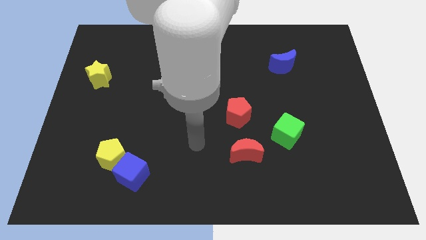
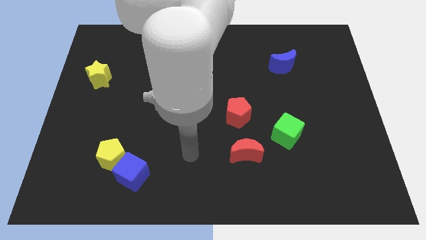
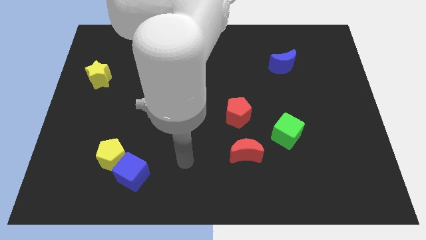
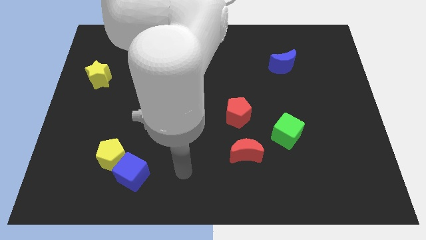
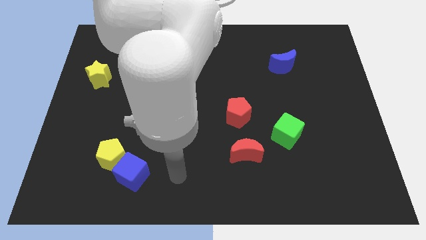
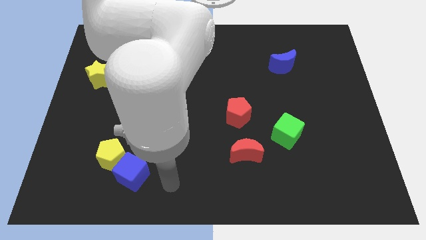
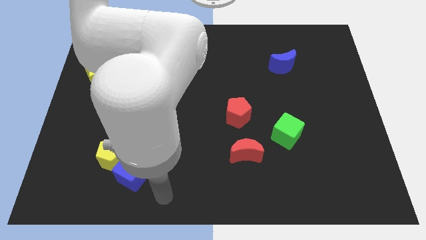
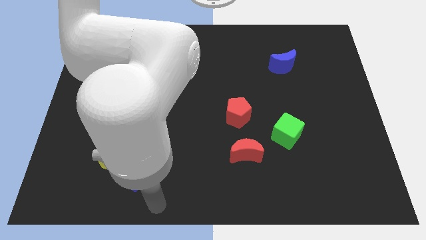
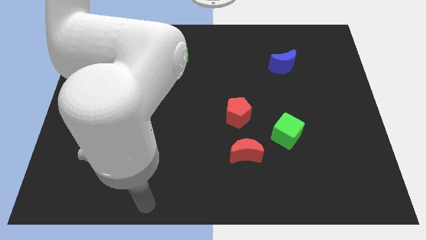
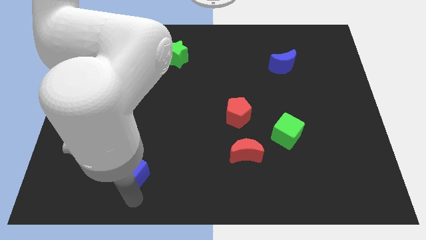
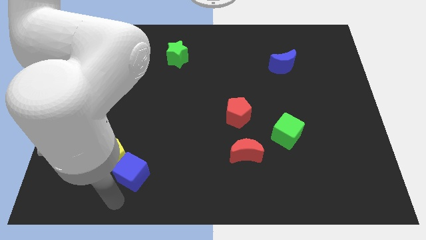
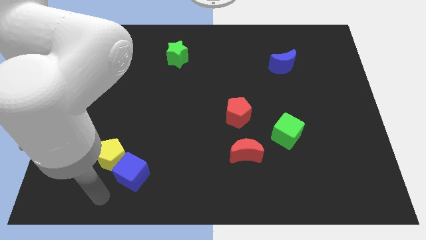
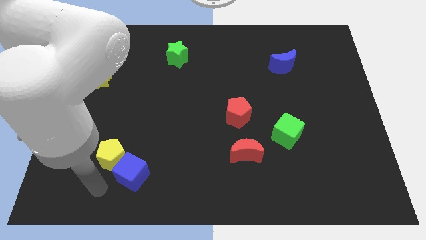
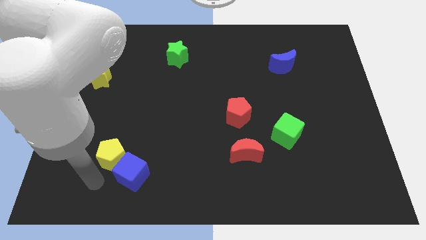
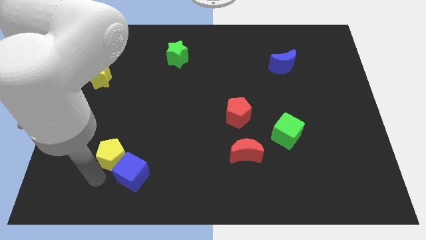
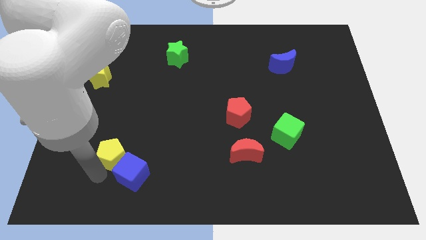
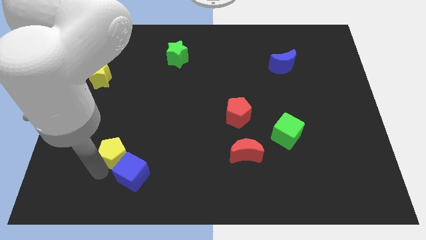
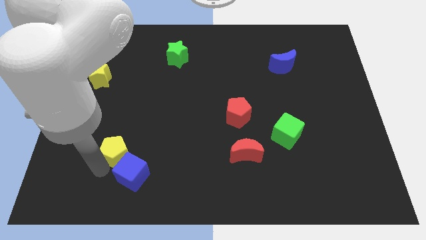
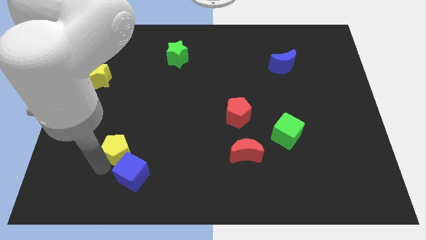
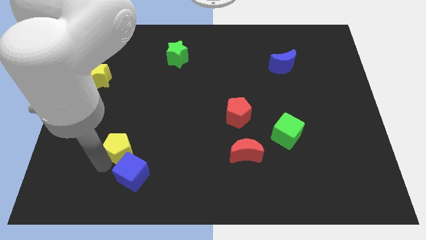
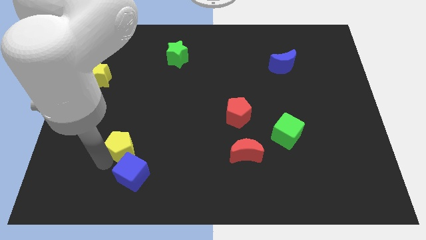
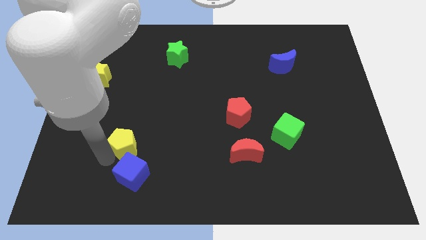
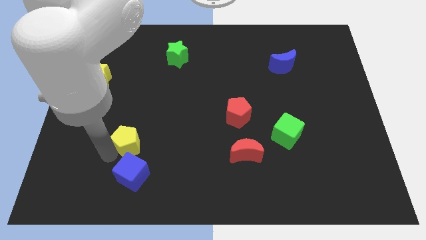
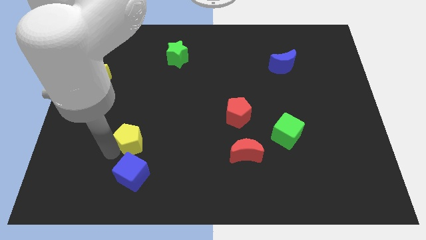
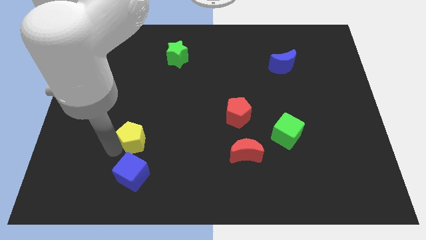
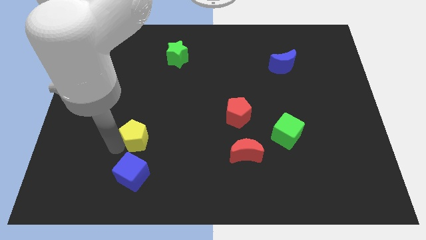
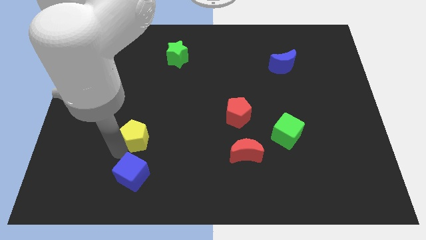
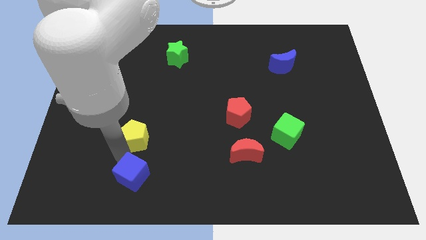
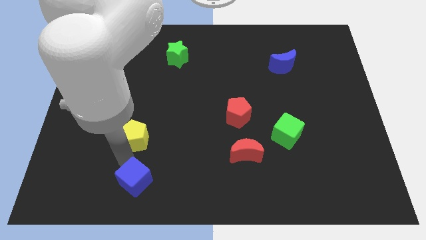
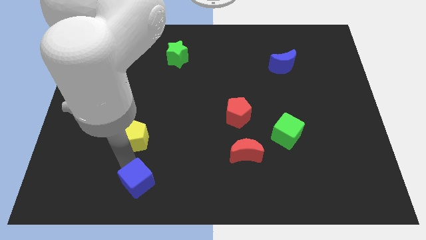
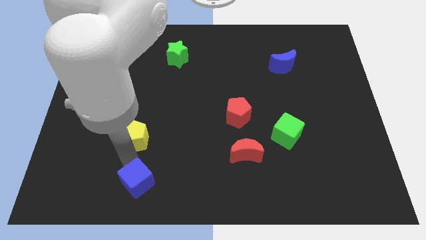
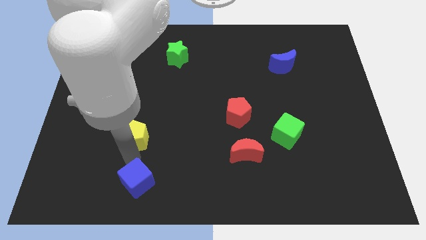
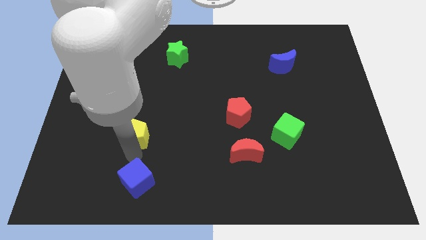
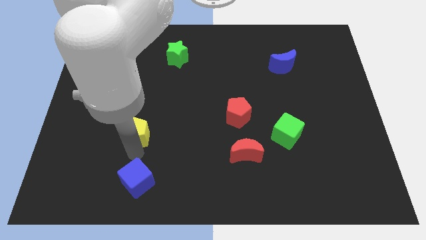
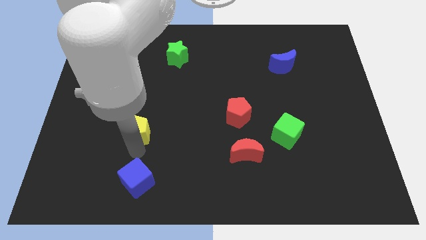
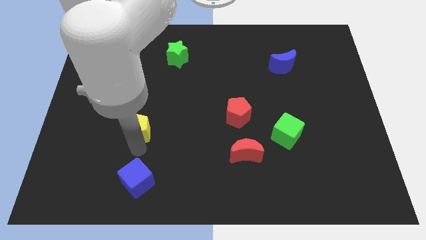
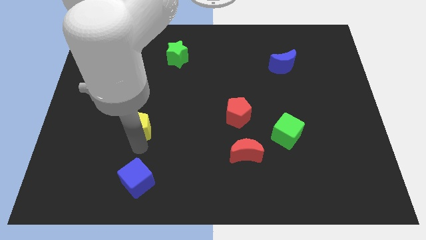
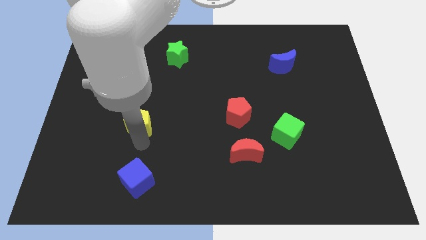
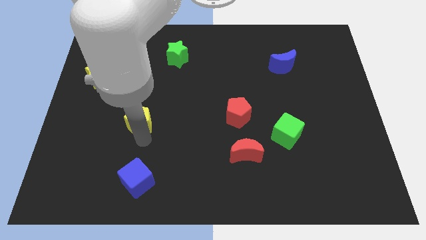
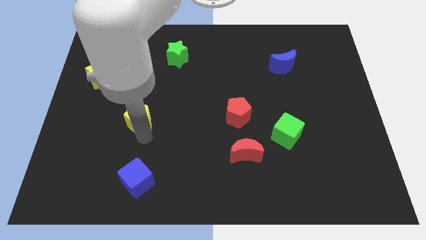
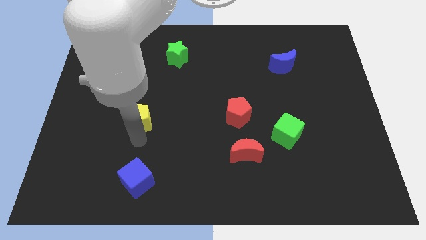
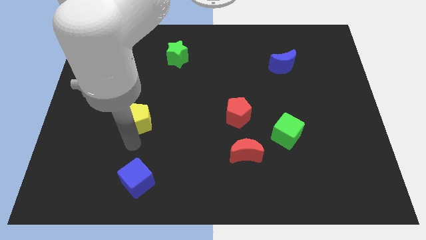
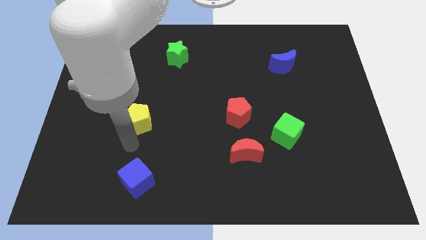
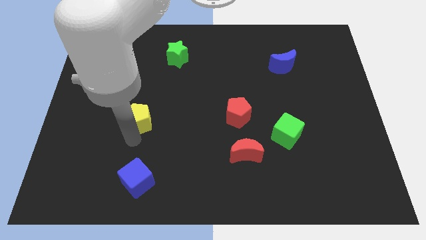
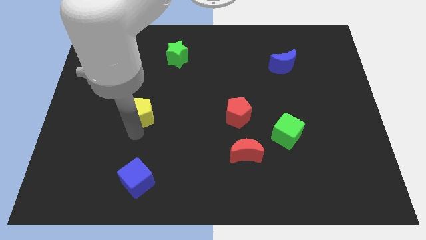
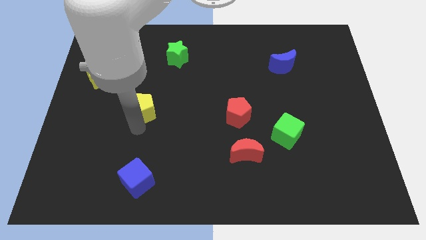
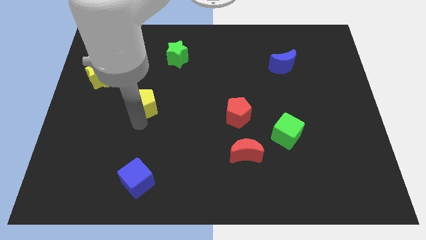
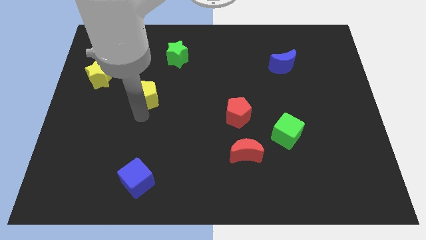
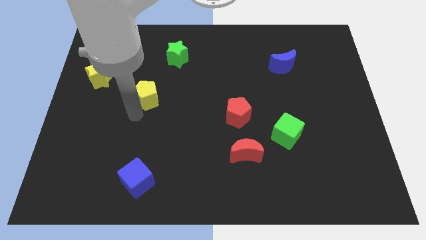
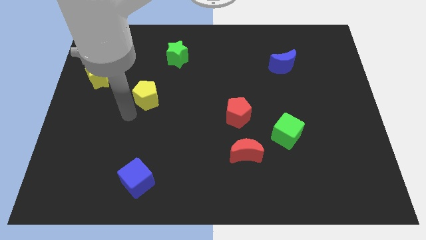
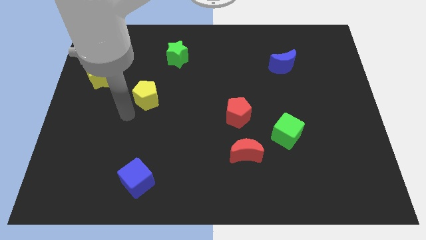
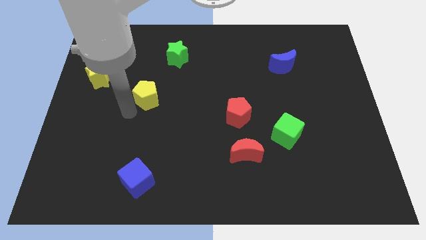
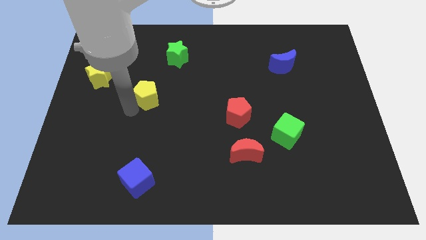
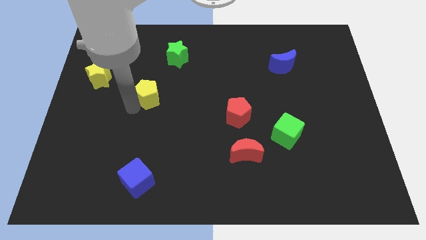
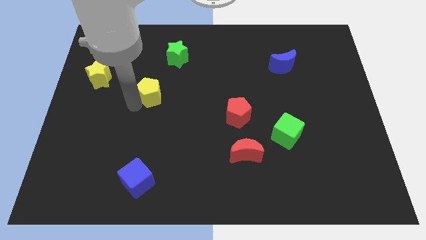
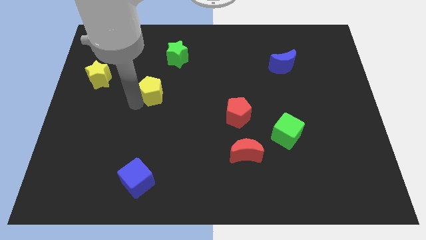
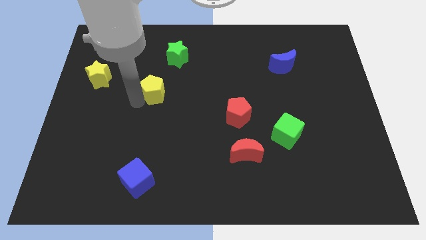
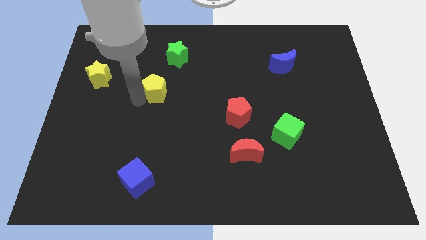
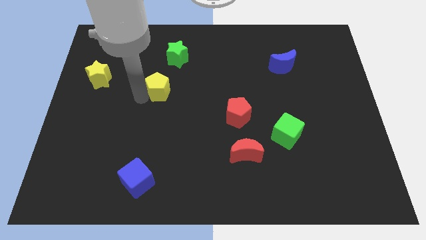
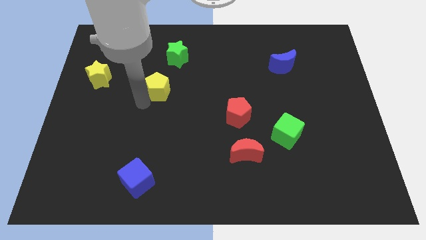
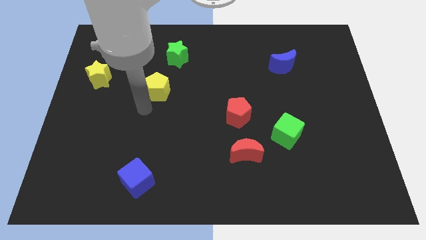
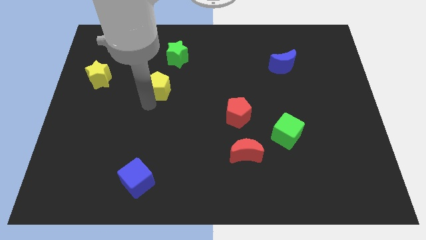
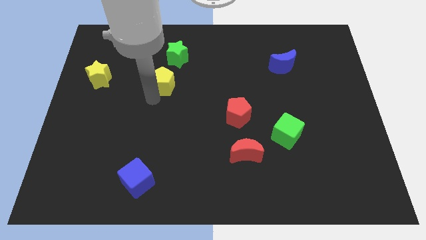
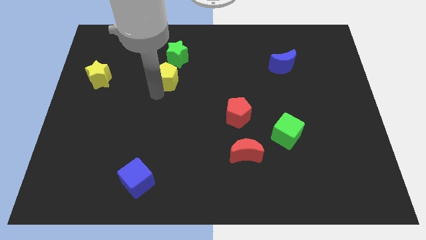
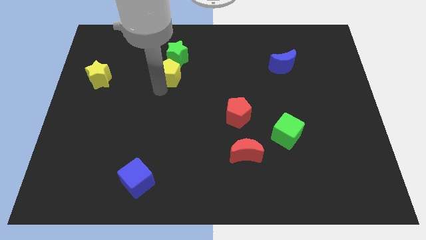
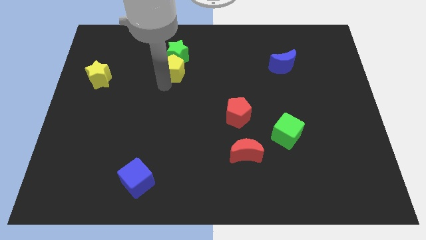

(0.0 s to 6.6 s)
move the yellow pentagon close to the green star

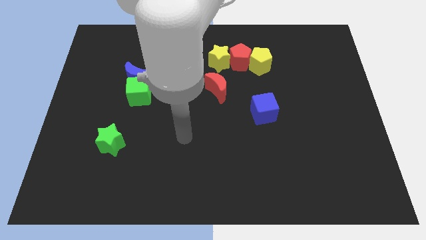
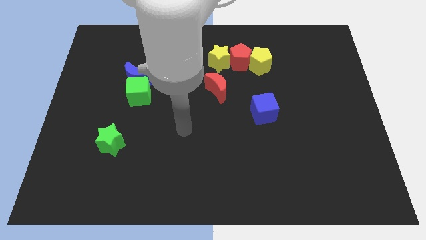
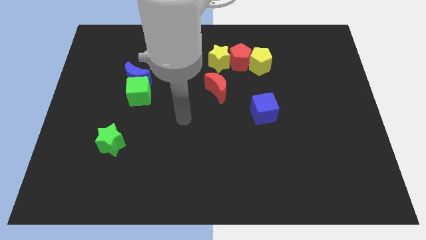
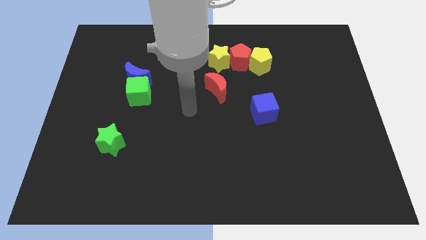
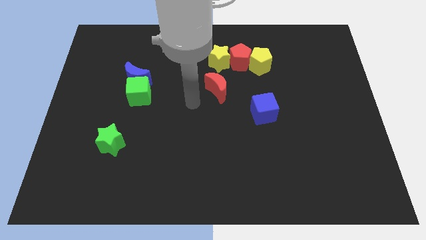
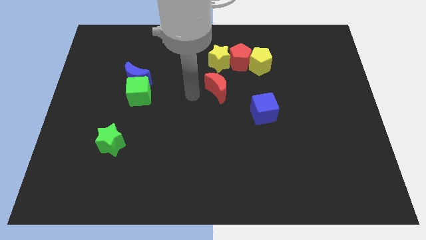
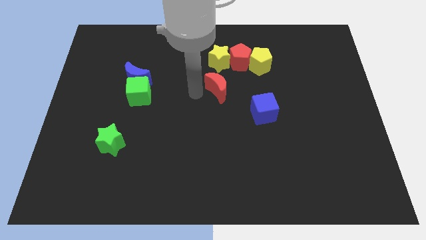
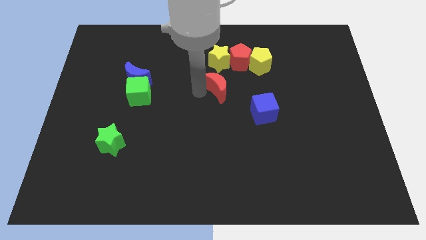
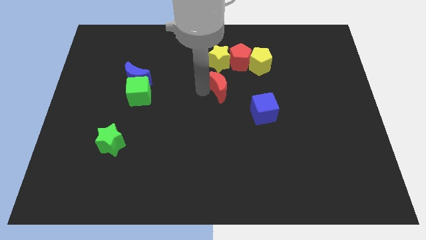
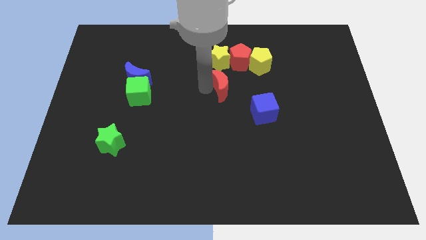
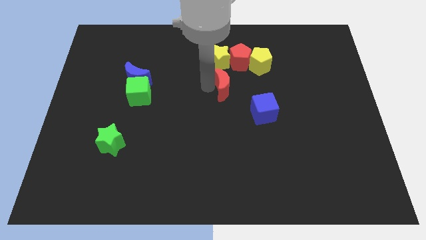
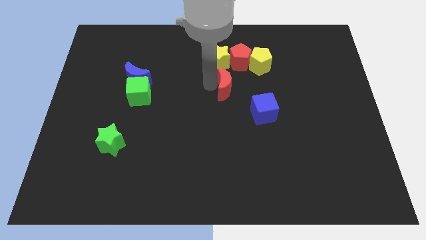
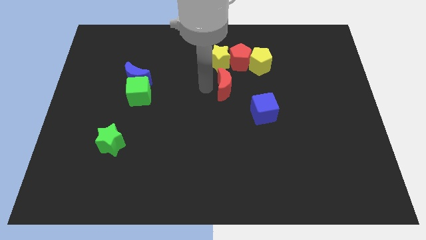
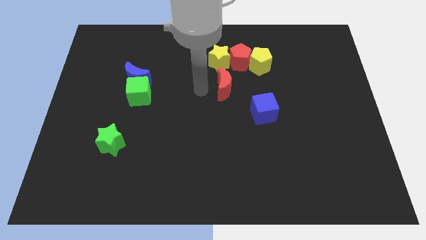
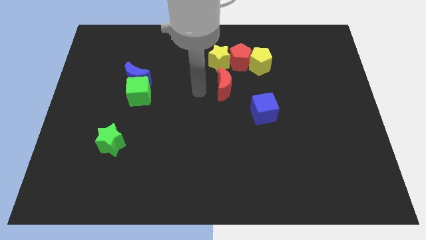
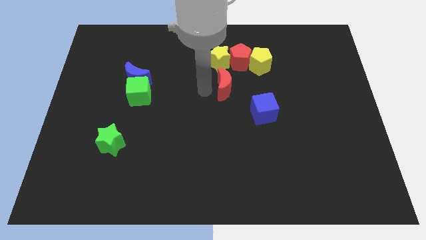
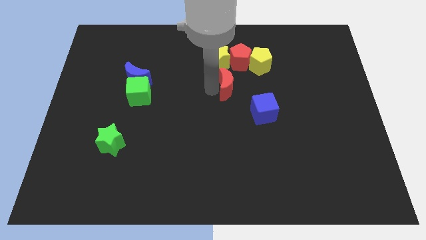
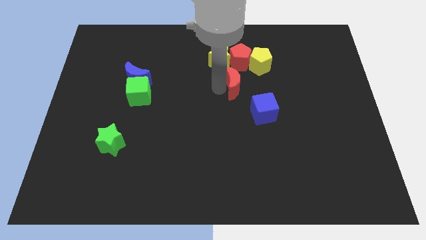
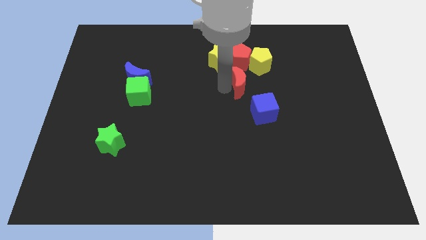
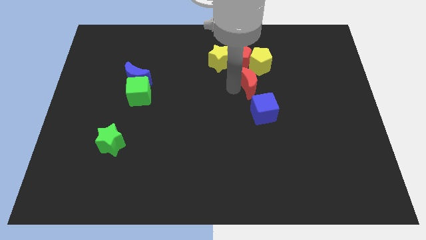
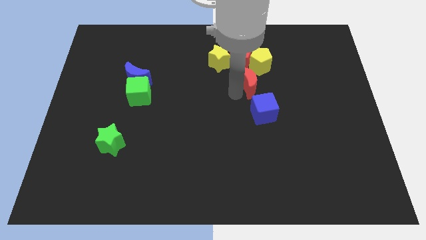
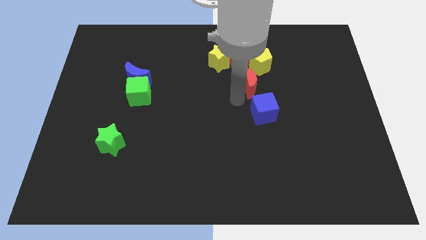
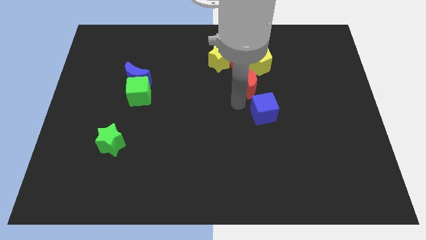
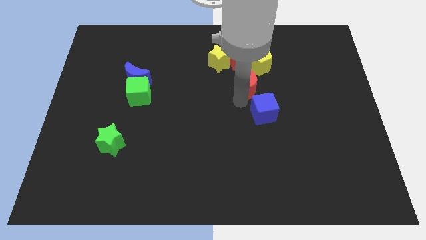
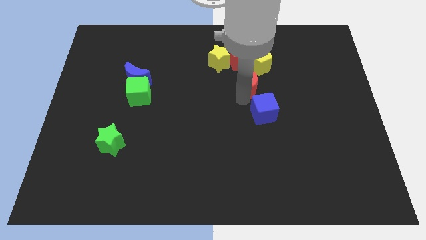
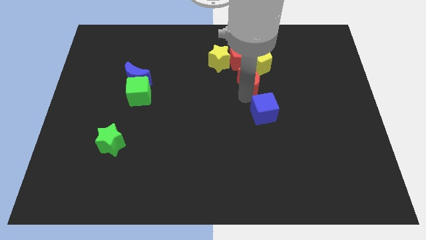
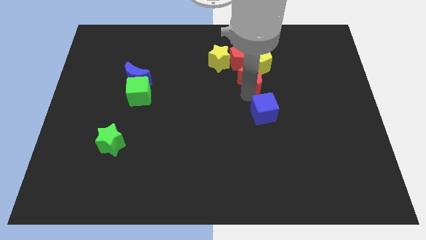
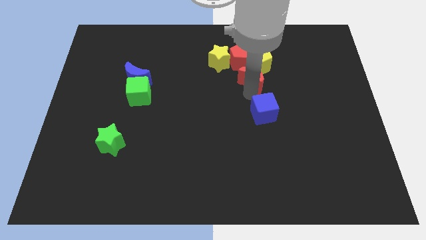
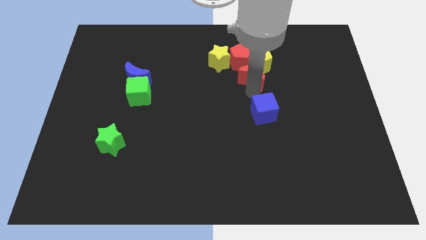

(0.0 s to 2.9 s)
put the red moon to the yellow pentagon
